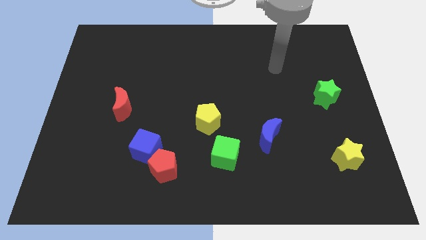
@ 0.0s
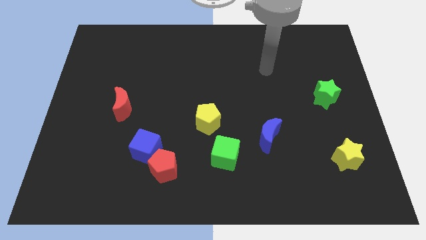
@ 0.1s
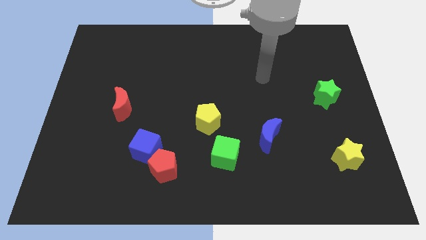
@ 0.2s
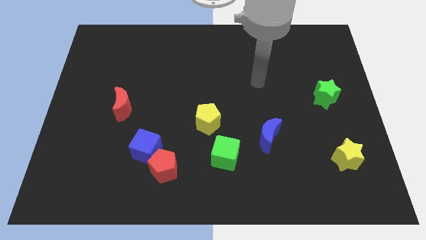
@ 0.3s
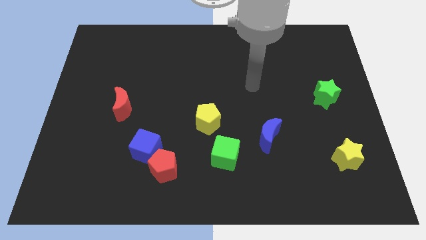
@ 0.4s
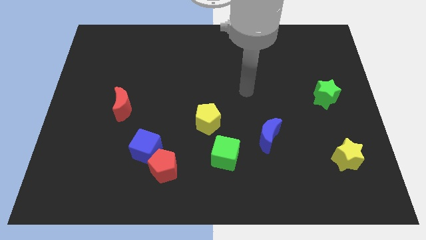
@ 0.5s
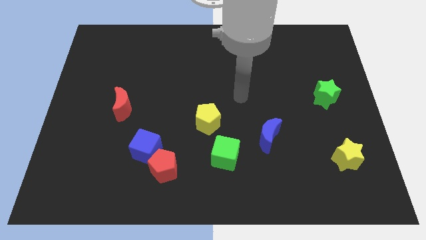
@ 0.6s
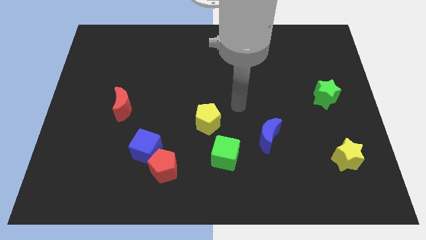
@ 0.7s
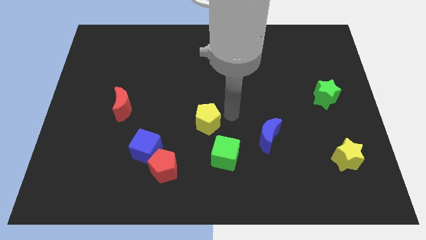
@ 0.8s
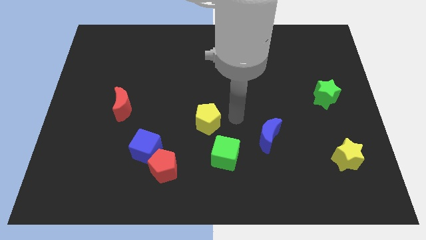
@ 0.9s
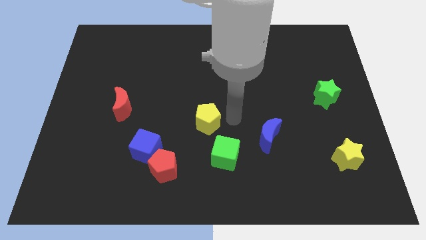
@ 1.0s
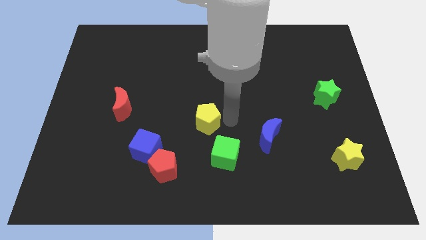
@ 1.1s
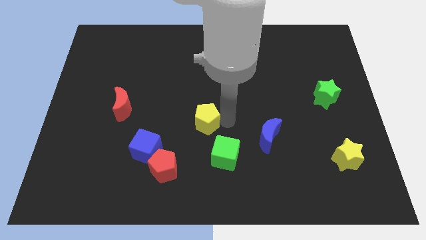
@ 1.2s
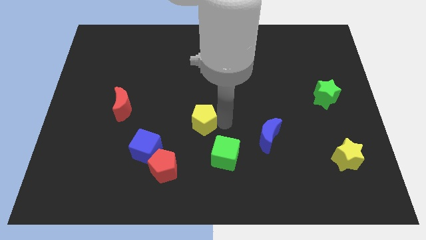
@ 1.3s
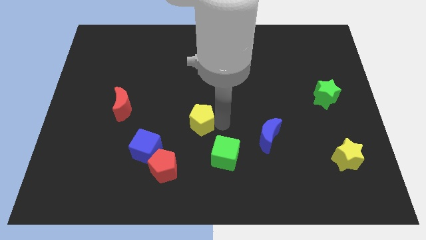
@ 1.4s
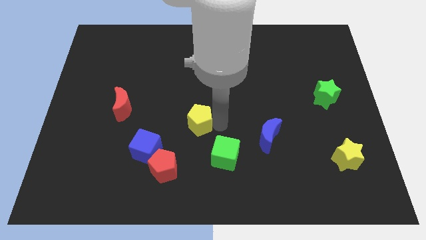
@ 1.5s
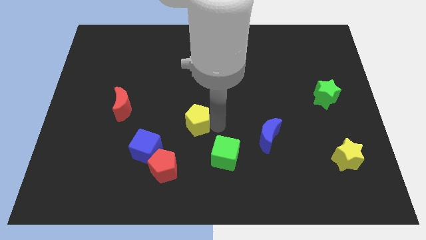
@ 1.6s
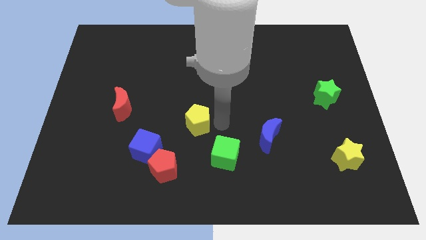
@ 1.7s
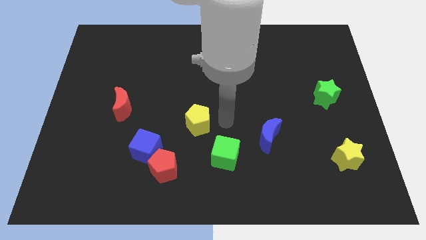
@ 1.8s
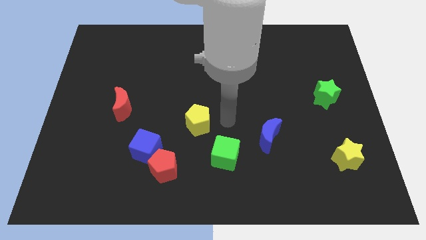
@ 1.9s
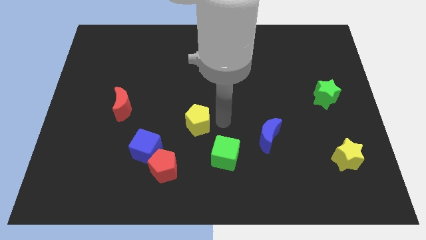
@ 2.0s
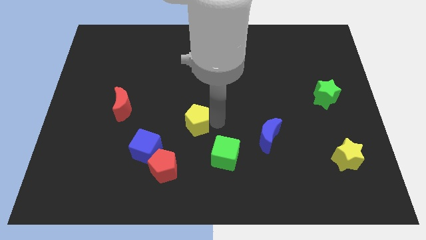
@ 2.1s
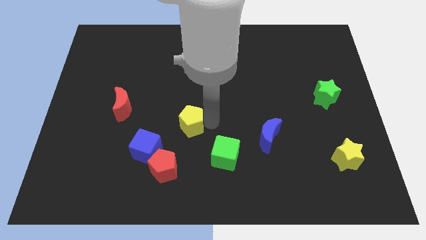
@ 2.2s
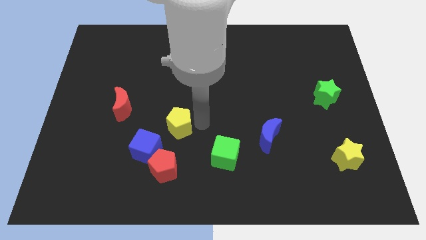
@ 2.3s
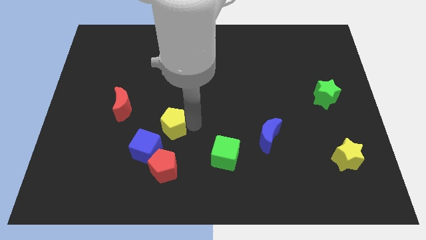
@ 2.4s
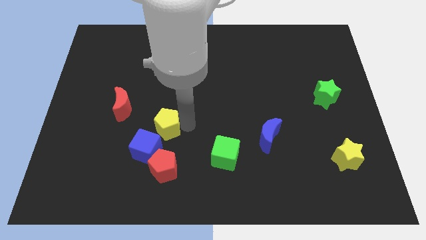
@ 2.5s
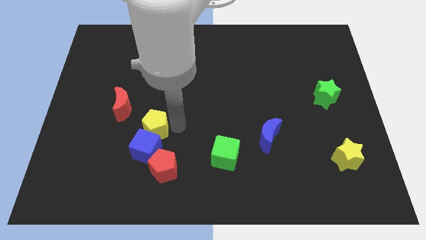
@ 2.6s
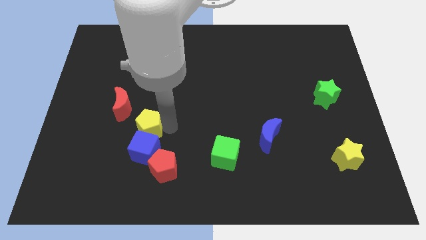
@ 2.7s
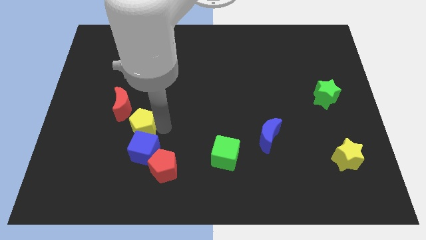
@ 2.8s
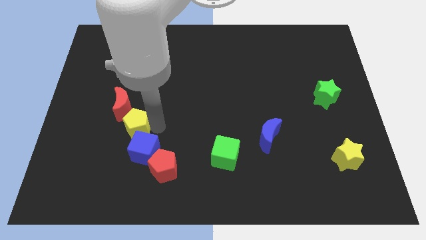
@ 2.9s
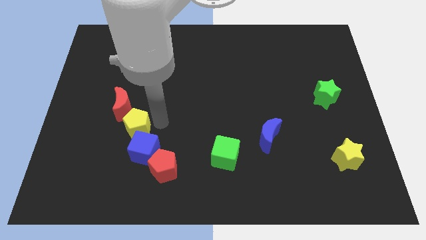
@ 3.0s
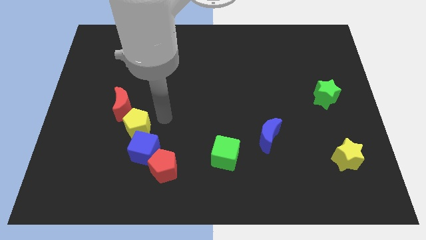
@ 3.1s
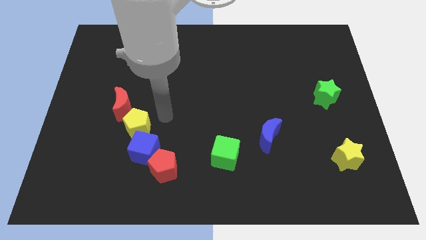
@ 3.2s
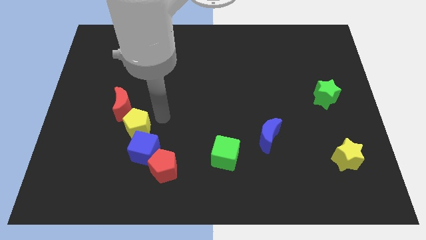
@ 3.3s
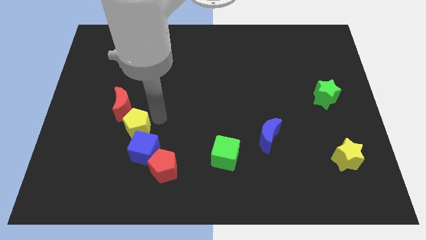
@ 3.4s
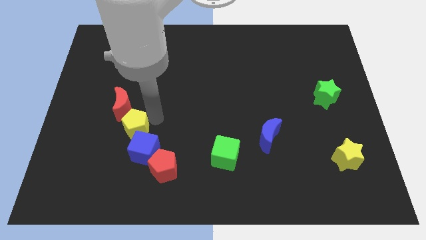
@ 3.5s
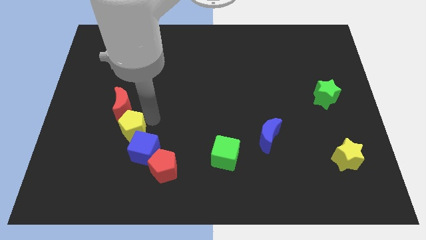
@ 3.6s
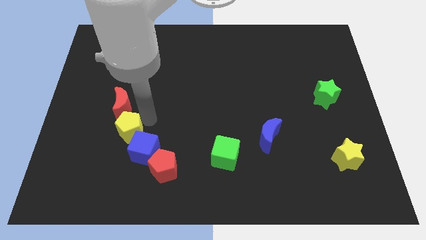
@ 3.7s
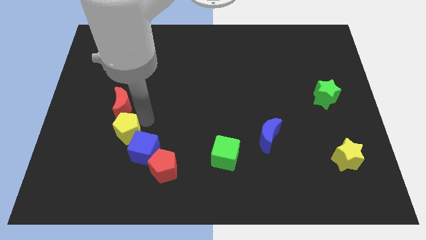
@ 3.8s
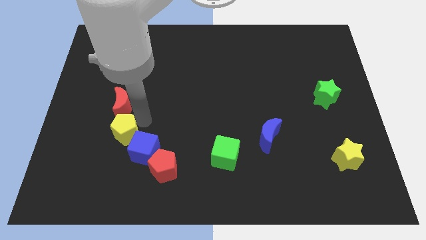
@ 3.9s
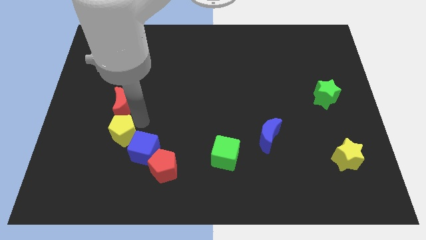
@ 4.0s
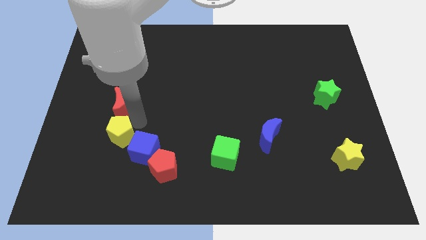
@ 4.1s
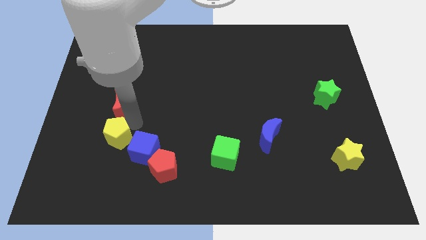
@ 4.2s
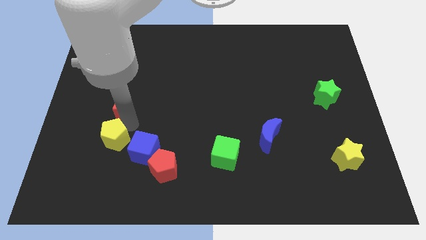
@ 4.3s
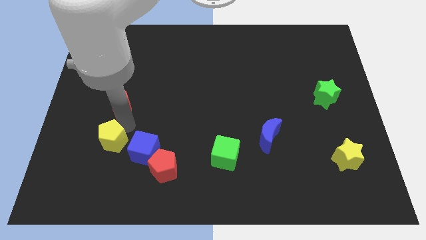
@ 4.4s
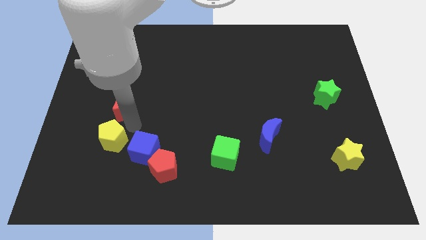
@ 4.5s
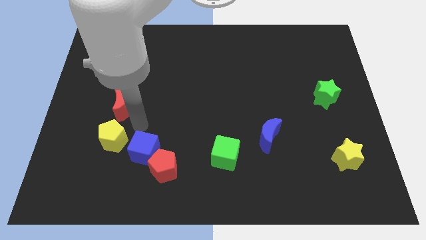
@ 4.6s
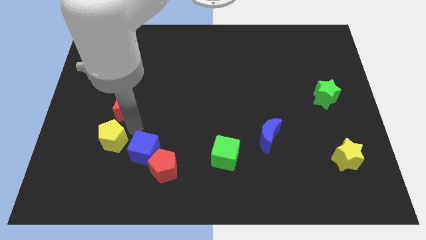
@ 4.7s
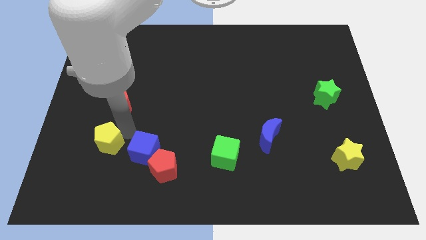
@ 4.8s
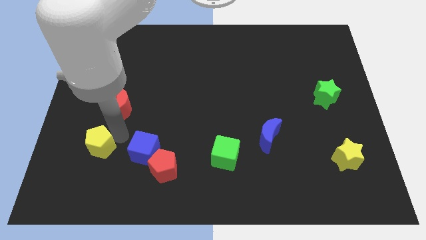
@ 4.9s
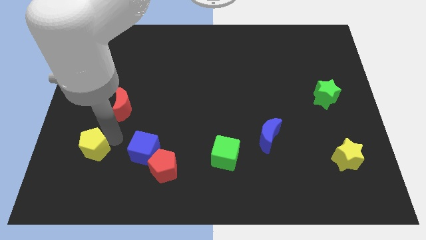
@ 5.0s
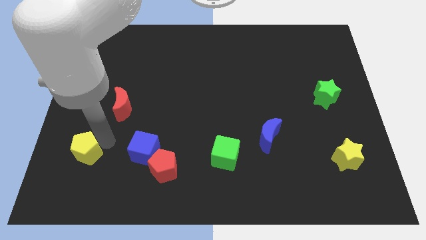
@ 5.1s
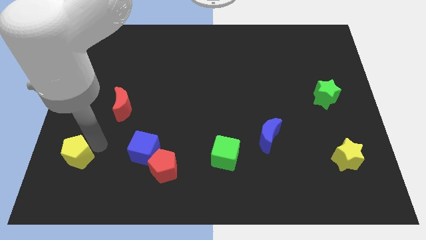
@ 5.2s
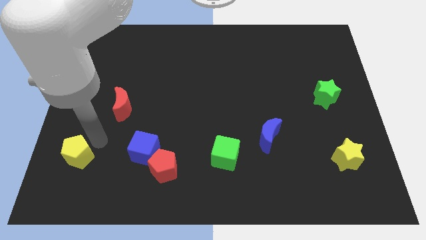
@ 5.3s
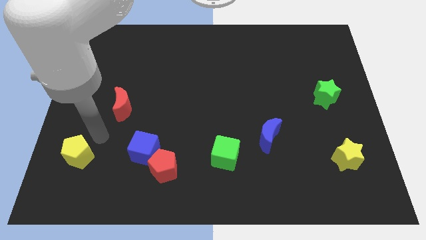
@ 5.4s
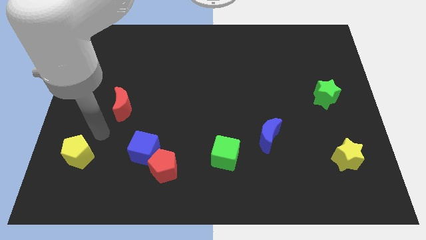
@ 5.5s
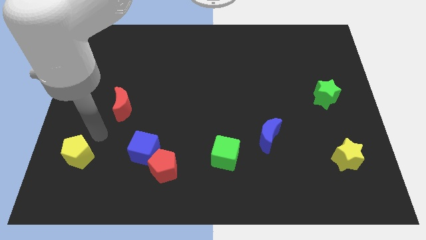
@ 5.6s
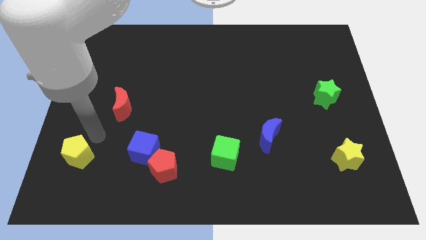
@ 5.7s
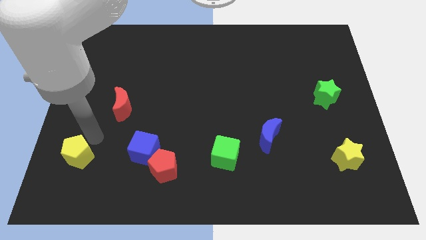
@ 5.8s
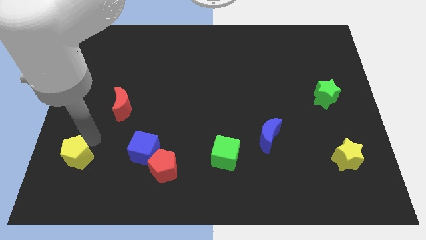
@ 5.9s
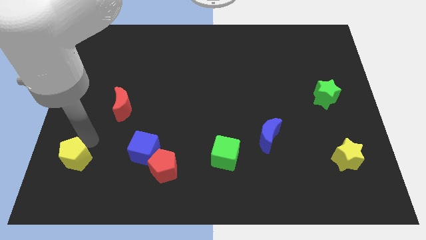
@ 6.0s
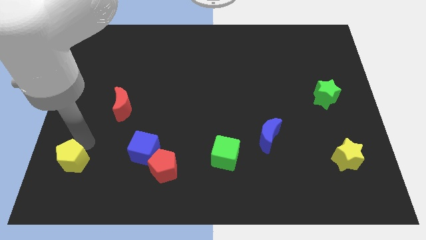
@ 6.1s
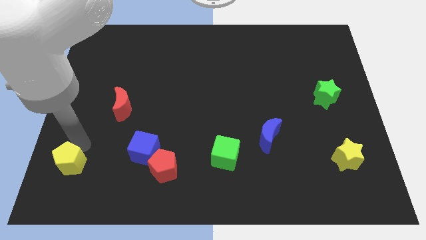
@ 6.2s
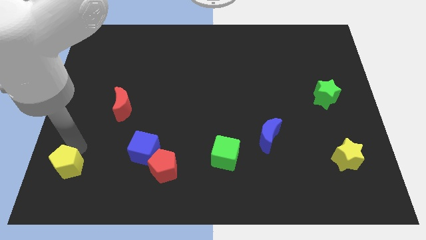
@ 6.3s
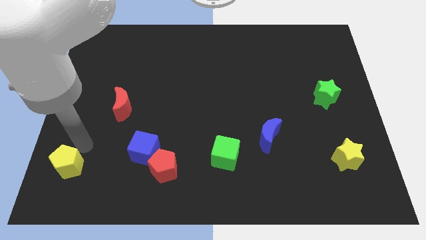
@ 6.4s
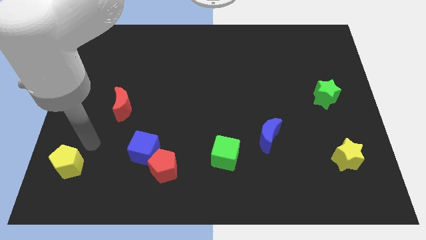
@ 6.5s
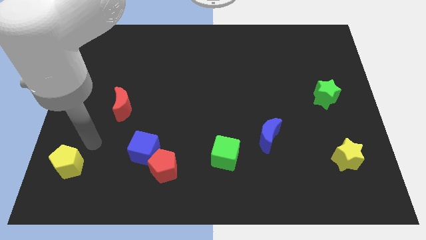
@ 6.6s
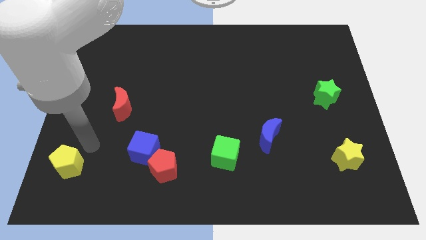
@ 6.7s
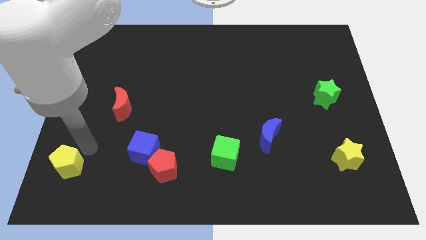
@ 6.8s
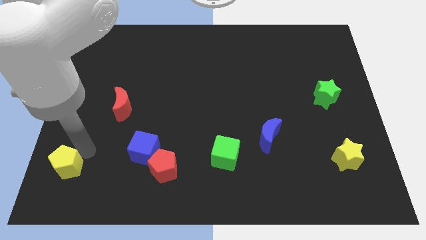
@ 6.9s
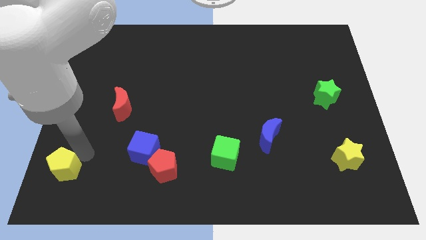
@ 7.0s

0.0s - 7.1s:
slide the yellow pentagon to the bottom left corner
